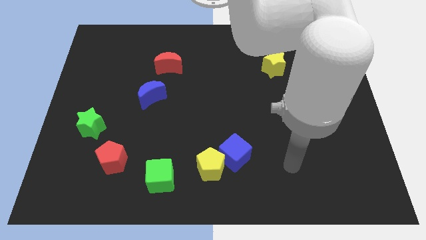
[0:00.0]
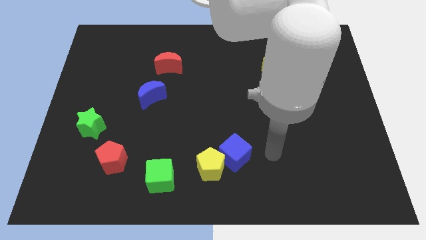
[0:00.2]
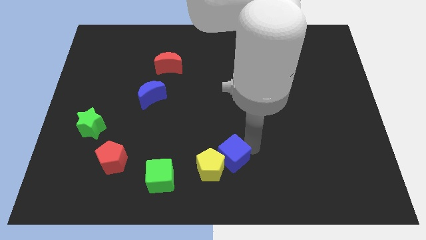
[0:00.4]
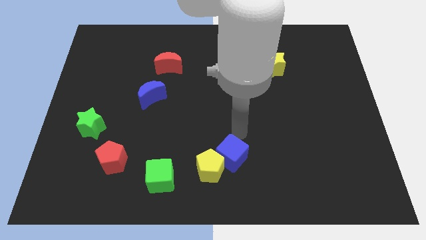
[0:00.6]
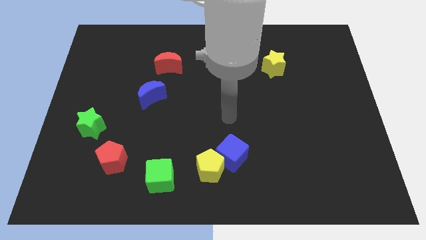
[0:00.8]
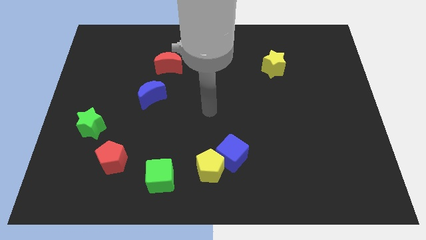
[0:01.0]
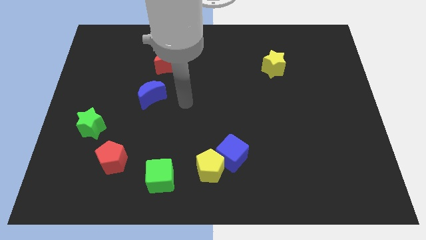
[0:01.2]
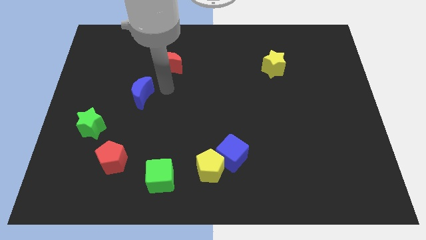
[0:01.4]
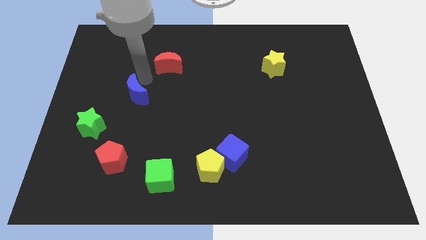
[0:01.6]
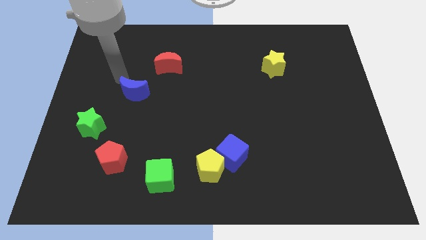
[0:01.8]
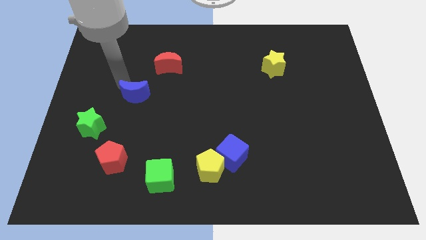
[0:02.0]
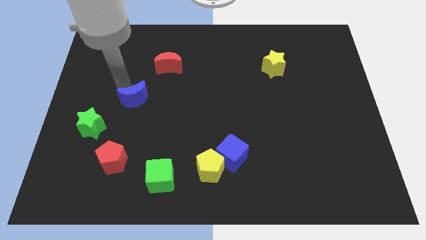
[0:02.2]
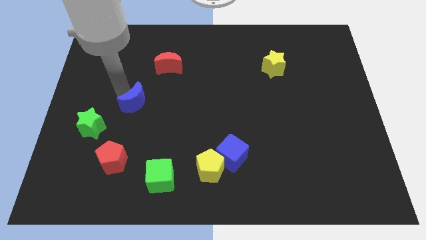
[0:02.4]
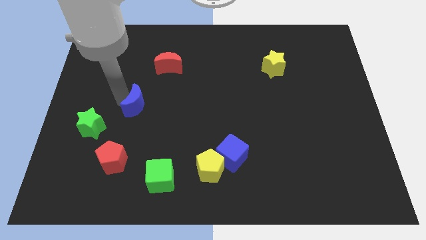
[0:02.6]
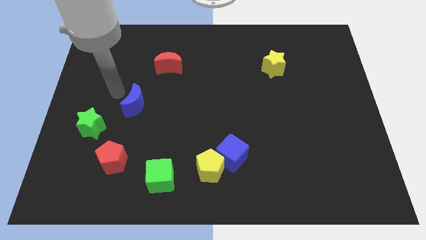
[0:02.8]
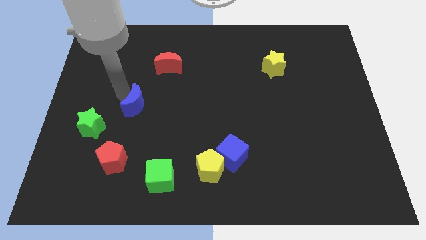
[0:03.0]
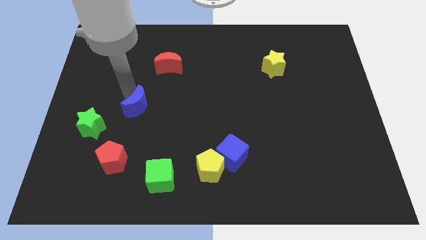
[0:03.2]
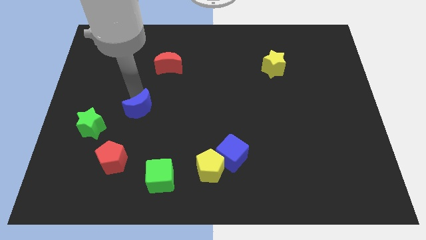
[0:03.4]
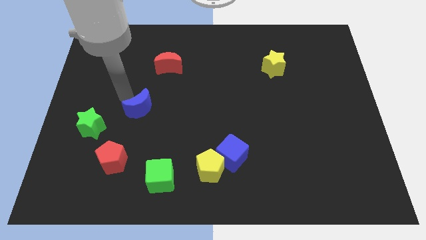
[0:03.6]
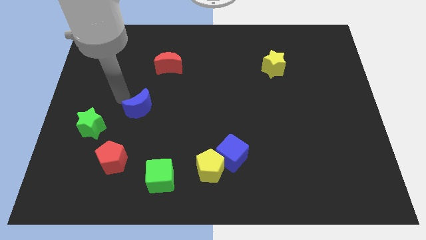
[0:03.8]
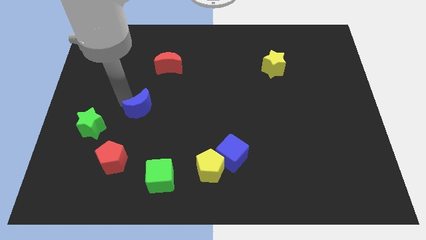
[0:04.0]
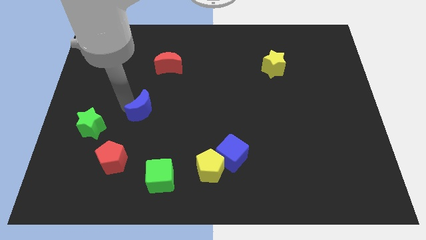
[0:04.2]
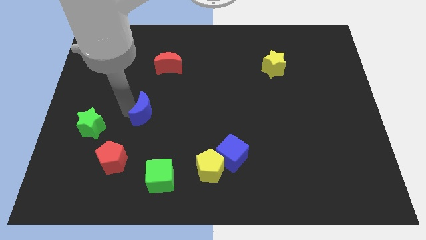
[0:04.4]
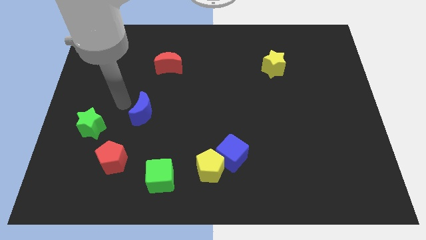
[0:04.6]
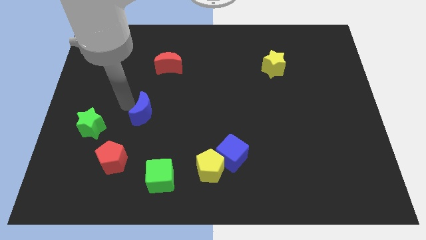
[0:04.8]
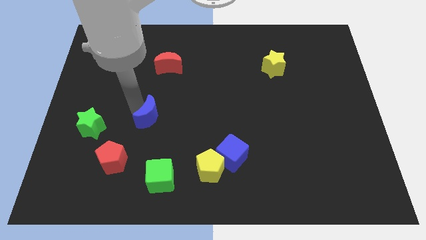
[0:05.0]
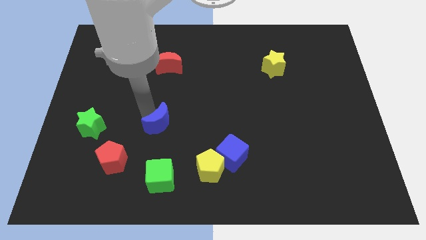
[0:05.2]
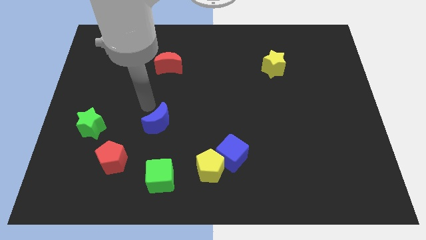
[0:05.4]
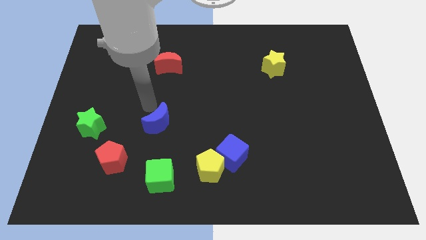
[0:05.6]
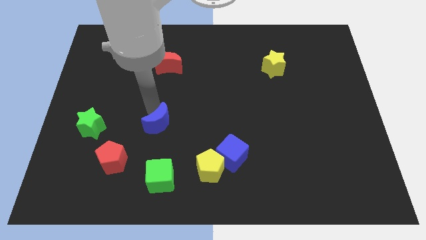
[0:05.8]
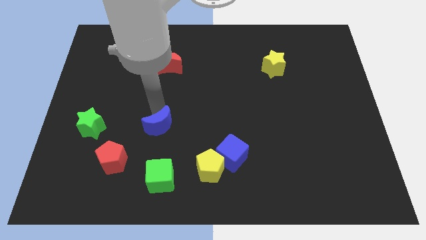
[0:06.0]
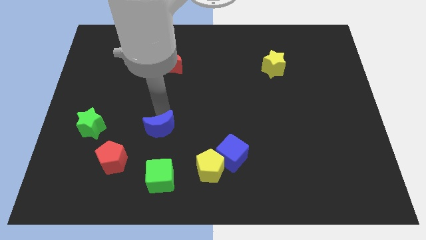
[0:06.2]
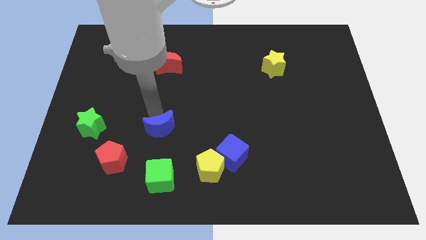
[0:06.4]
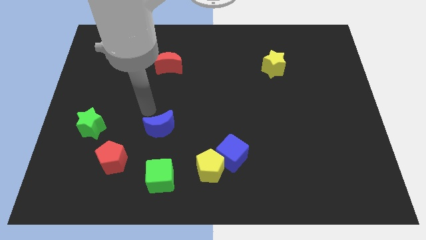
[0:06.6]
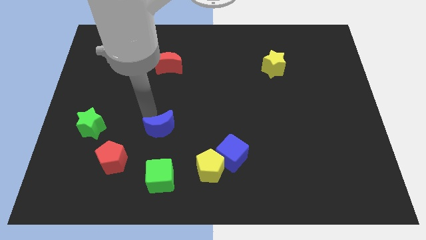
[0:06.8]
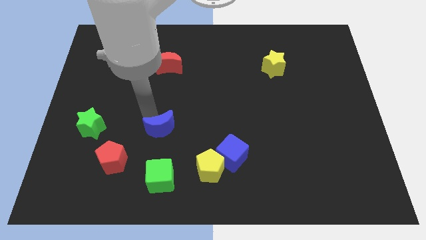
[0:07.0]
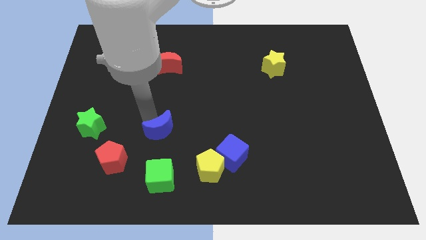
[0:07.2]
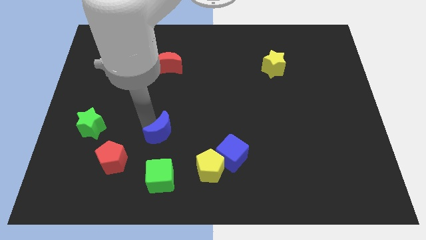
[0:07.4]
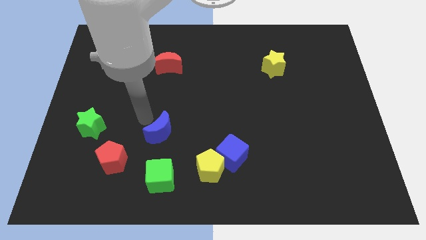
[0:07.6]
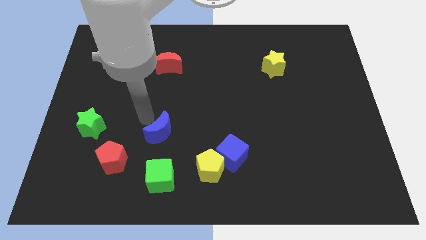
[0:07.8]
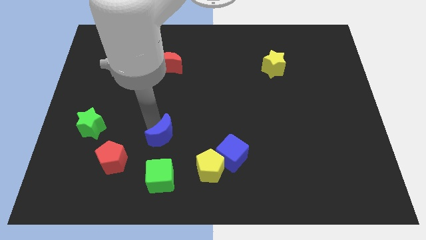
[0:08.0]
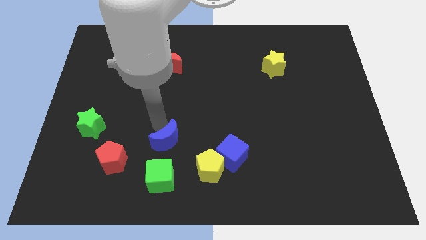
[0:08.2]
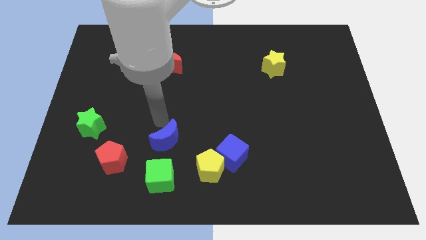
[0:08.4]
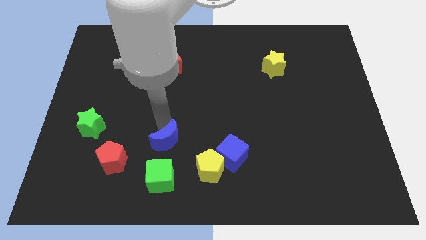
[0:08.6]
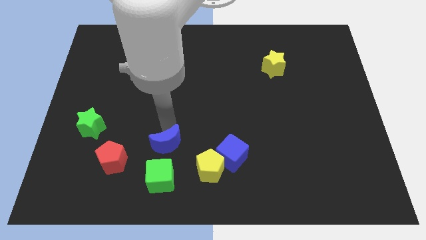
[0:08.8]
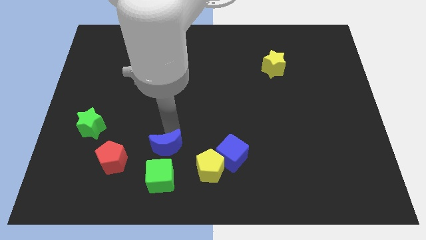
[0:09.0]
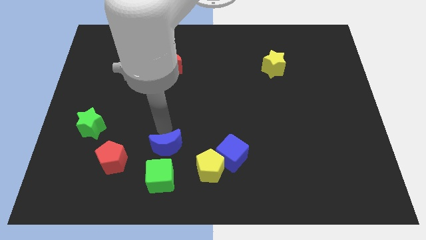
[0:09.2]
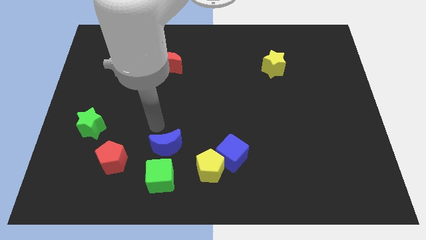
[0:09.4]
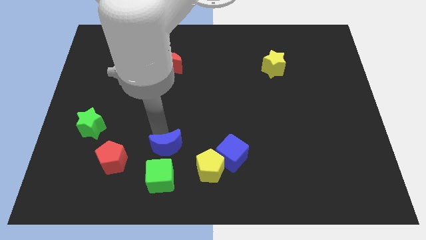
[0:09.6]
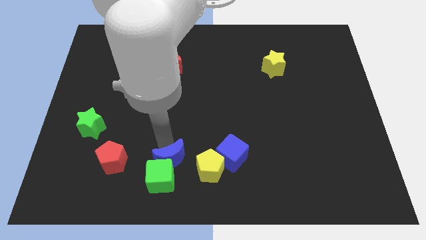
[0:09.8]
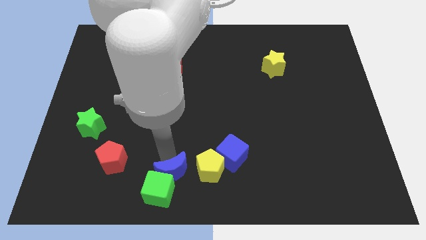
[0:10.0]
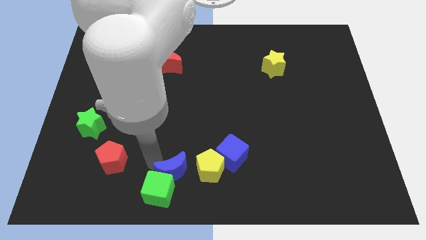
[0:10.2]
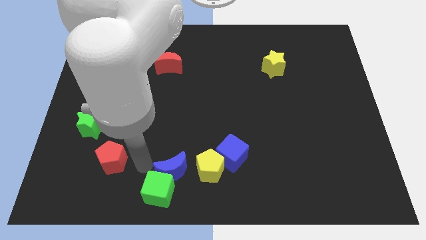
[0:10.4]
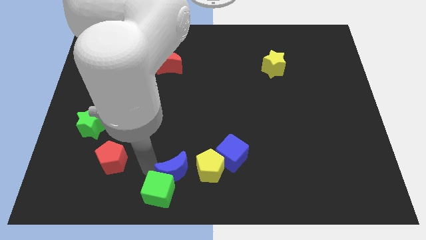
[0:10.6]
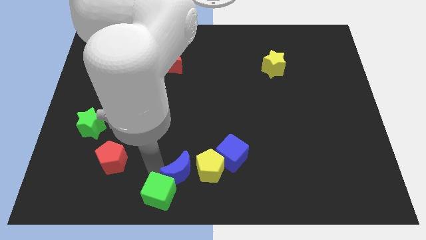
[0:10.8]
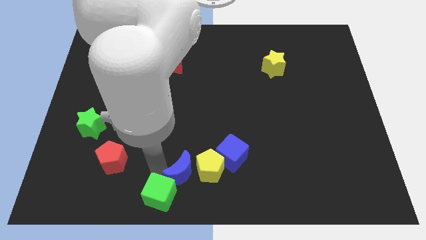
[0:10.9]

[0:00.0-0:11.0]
slide the blue moon to the bottom left side of the blue cube

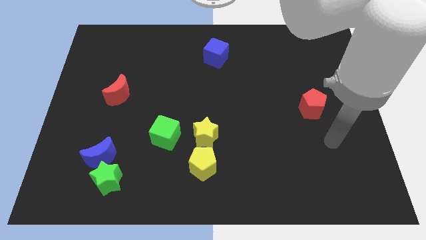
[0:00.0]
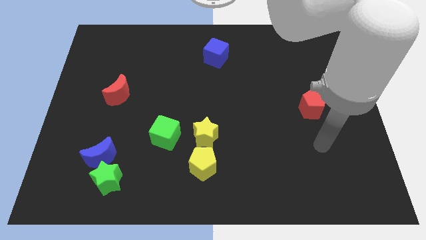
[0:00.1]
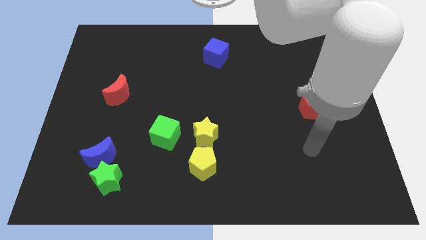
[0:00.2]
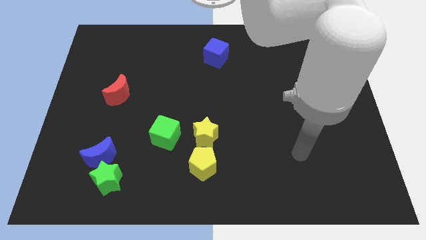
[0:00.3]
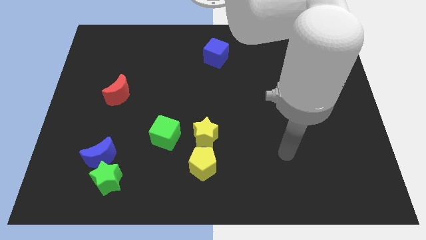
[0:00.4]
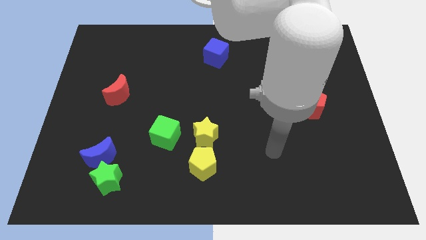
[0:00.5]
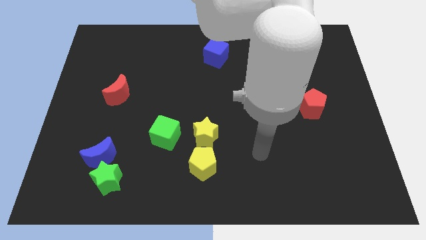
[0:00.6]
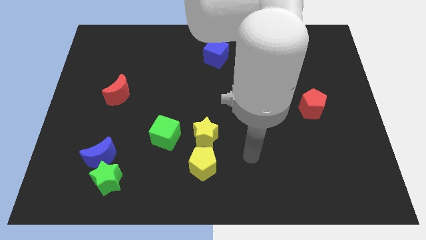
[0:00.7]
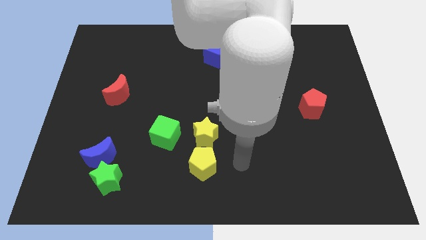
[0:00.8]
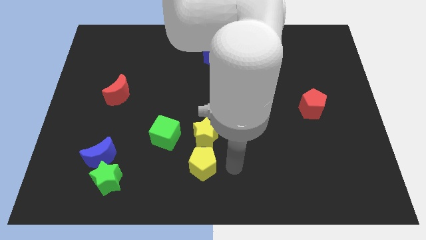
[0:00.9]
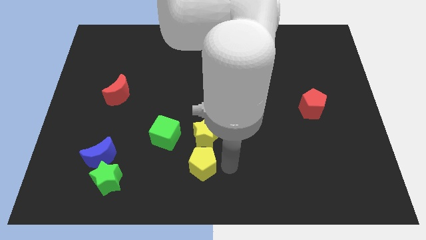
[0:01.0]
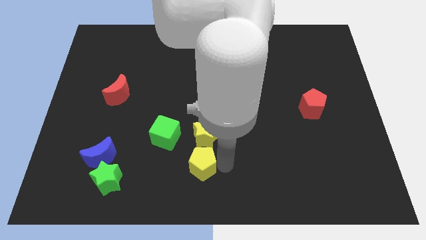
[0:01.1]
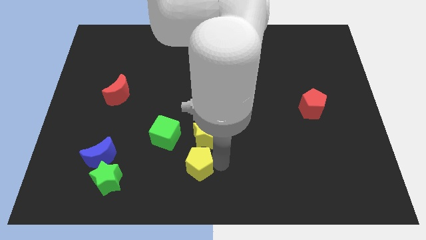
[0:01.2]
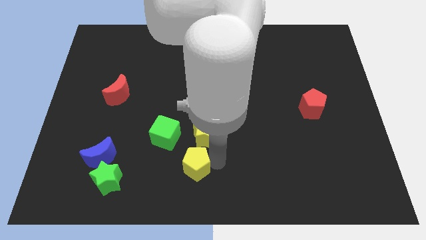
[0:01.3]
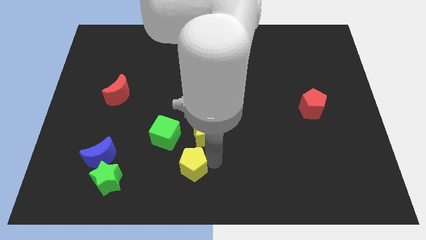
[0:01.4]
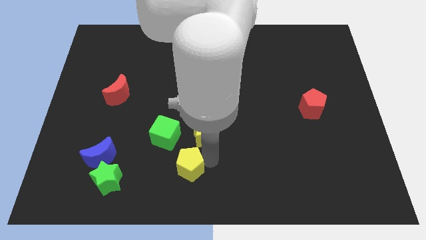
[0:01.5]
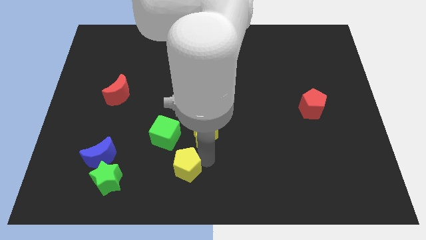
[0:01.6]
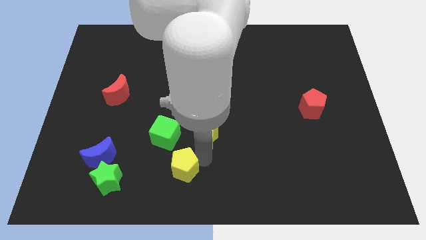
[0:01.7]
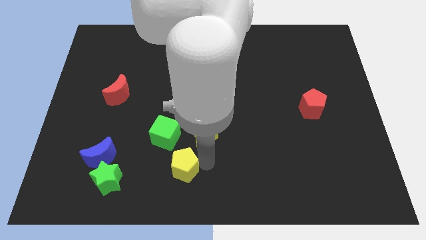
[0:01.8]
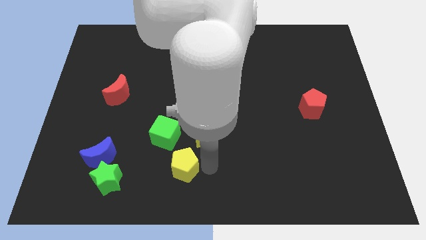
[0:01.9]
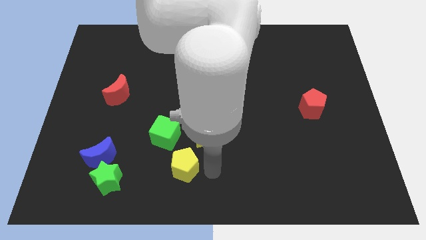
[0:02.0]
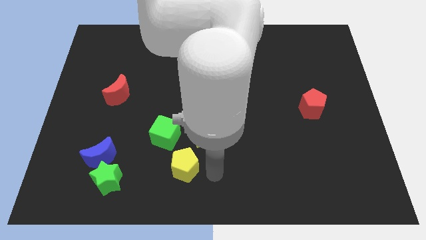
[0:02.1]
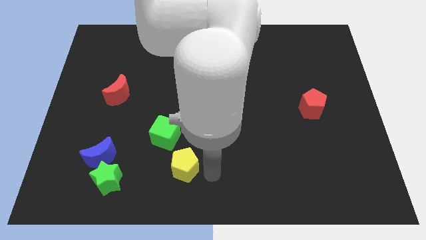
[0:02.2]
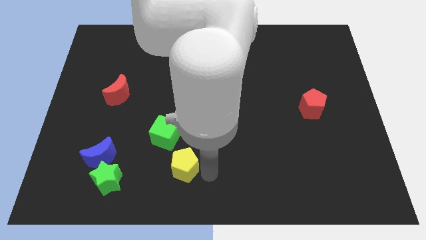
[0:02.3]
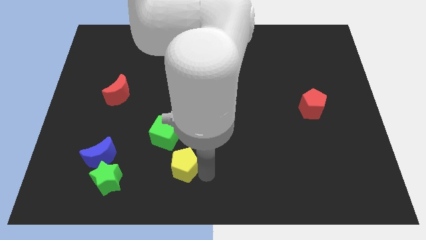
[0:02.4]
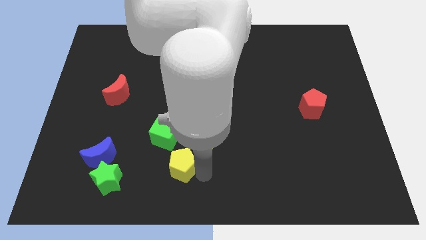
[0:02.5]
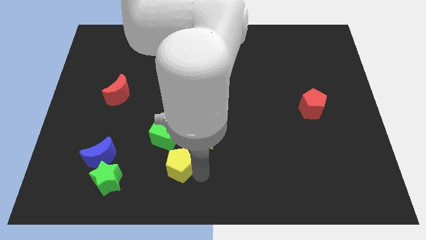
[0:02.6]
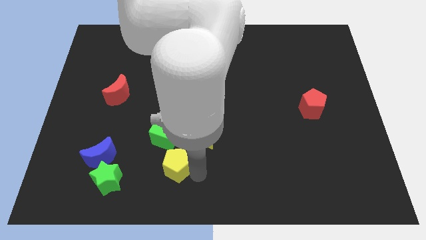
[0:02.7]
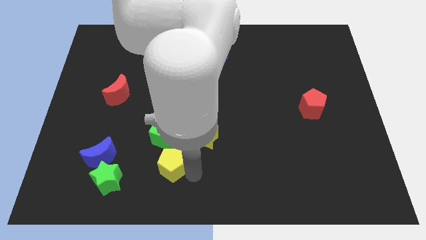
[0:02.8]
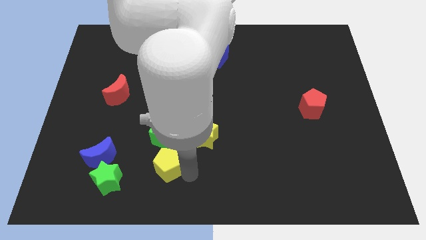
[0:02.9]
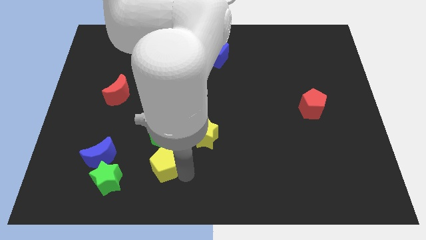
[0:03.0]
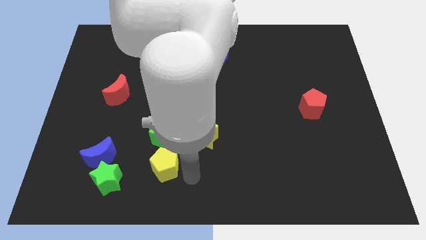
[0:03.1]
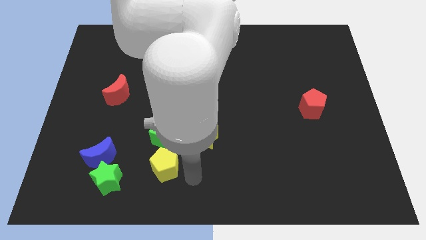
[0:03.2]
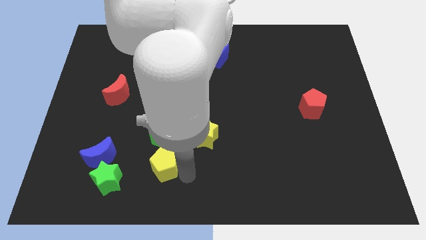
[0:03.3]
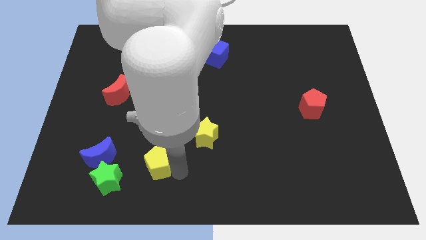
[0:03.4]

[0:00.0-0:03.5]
push the yellow pentagon to the bottom left of the green cube
